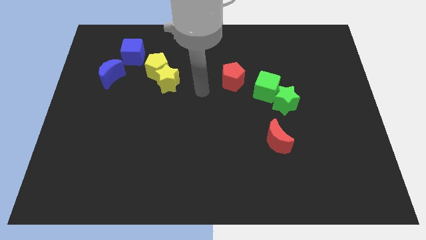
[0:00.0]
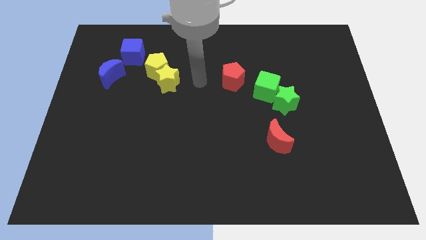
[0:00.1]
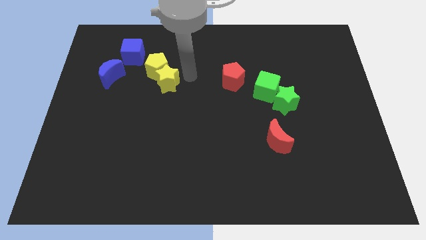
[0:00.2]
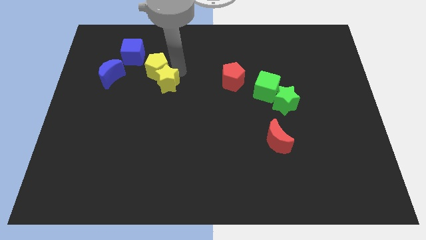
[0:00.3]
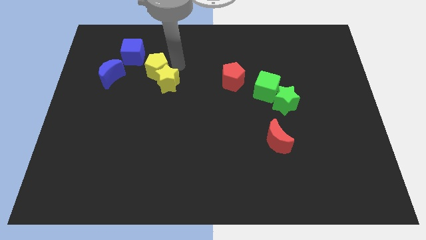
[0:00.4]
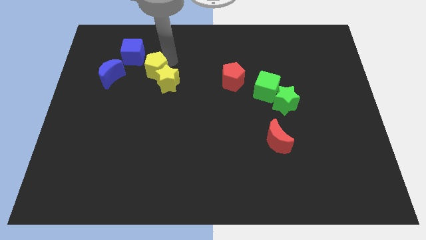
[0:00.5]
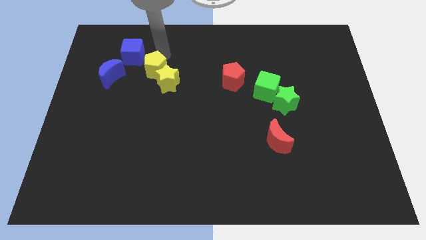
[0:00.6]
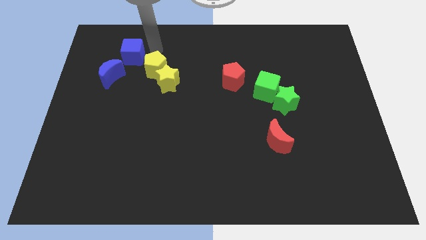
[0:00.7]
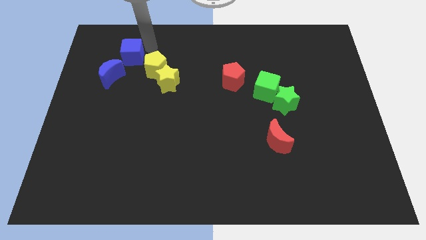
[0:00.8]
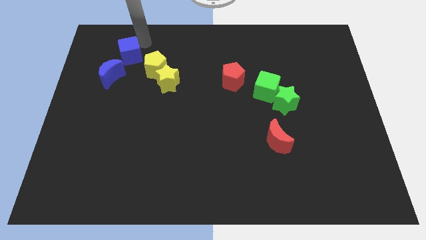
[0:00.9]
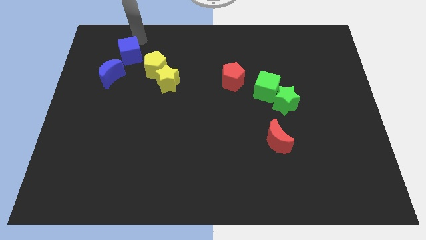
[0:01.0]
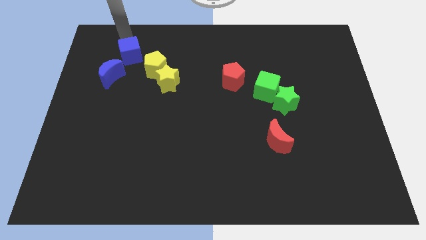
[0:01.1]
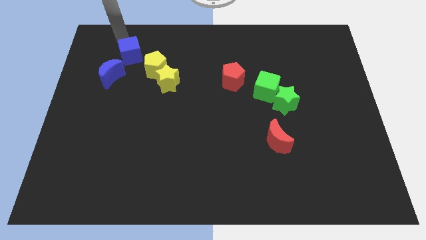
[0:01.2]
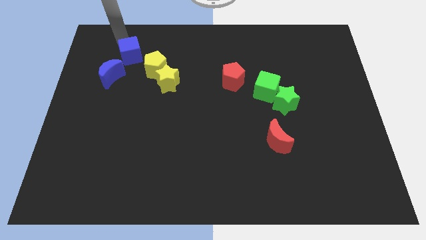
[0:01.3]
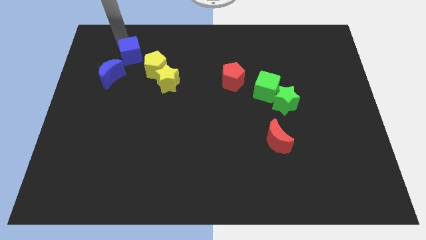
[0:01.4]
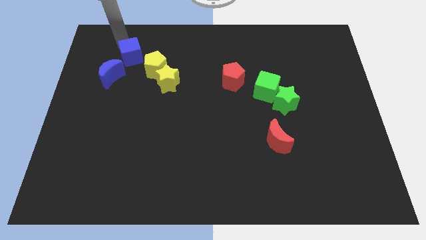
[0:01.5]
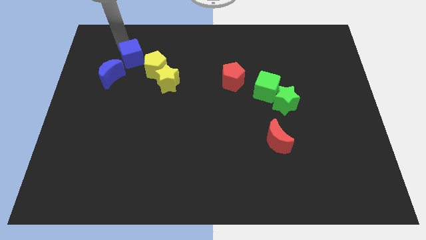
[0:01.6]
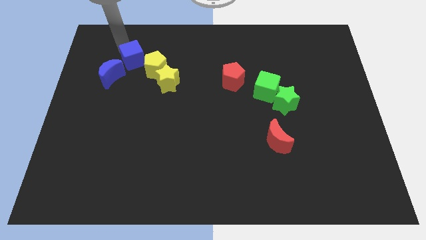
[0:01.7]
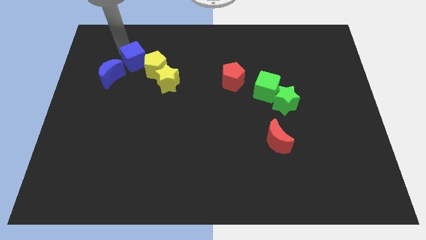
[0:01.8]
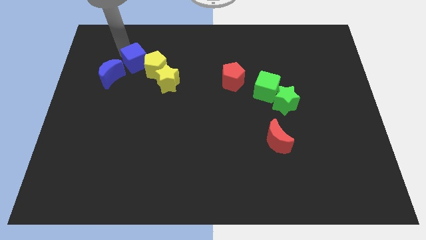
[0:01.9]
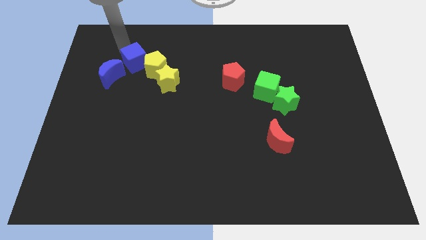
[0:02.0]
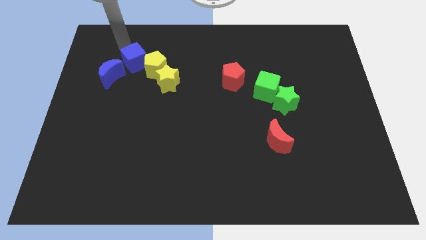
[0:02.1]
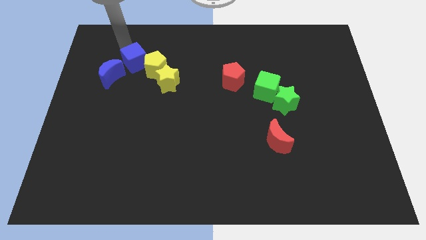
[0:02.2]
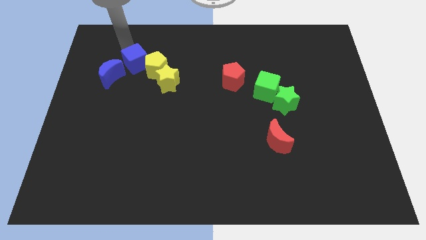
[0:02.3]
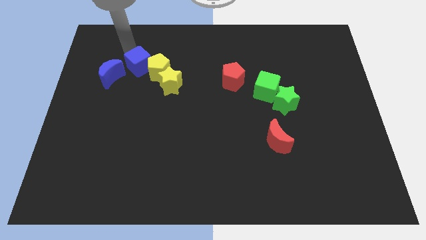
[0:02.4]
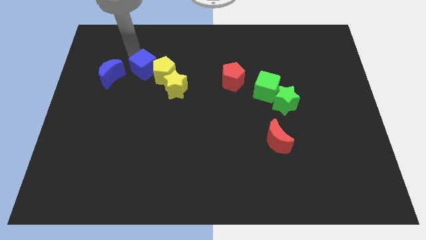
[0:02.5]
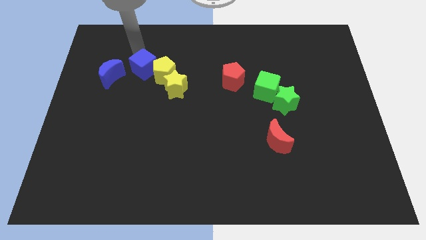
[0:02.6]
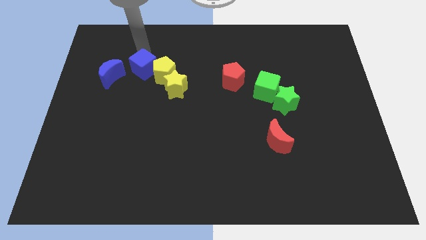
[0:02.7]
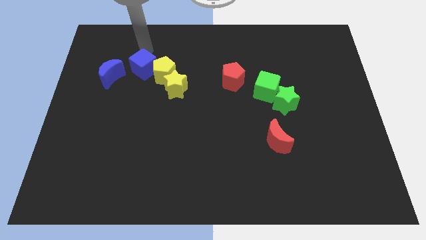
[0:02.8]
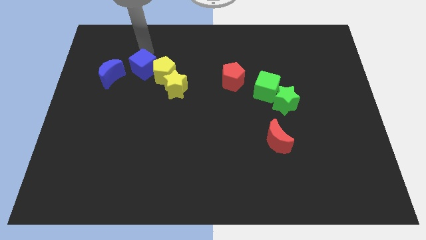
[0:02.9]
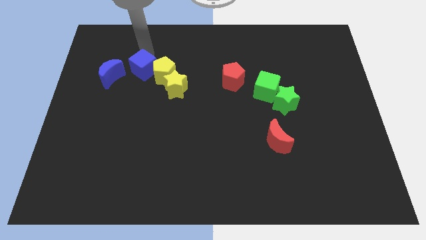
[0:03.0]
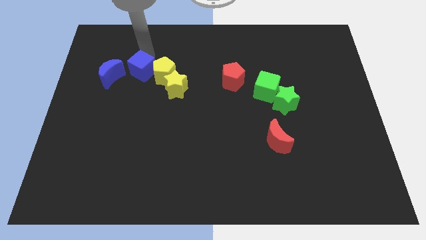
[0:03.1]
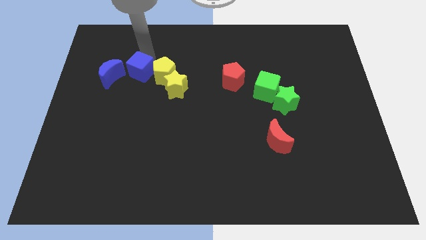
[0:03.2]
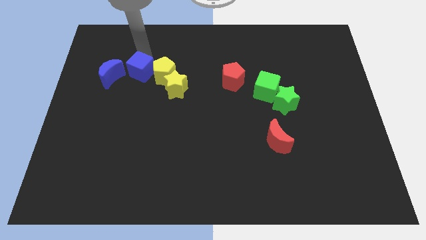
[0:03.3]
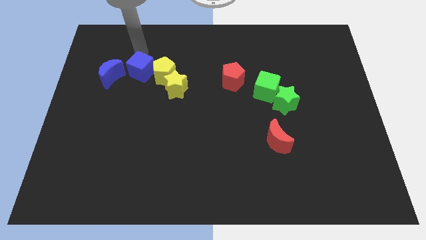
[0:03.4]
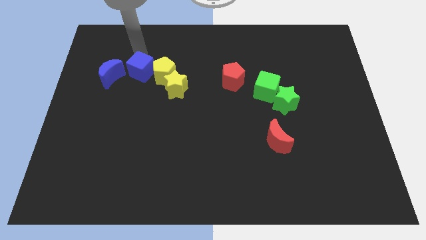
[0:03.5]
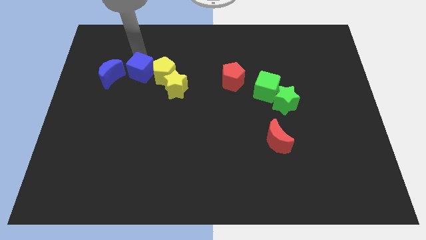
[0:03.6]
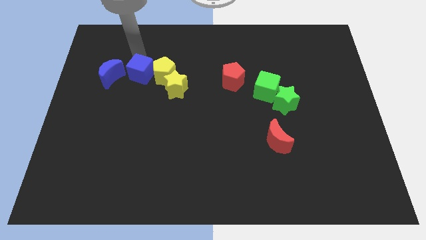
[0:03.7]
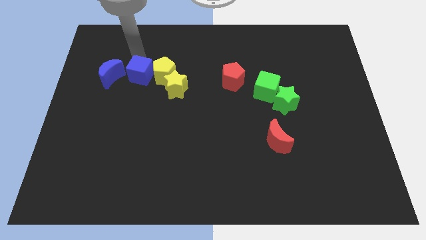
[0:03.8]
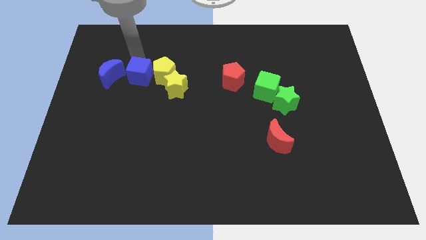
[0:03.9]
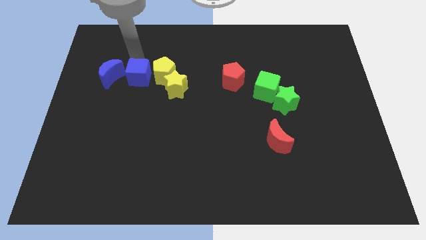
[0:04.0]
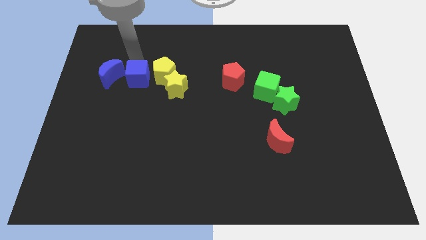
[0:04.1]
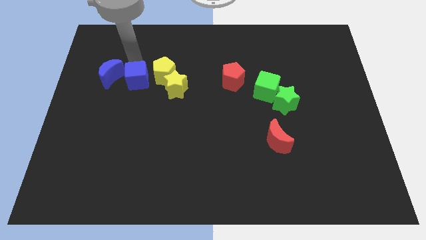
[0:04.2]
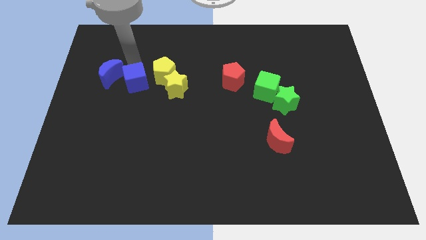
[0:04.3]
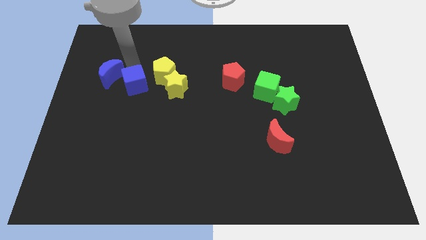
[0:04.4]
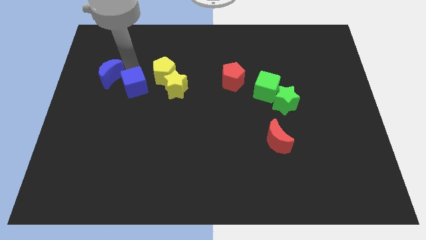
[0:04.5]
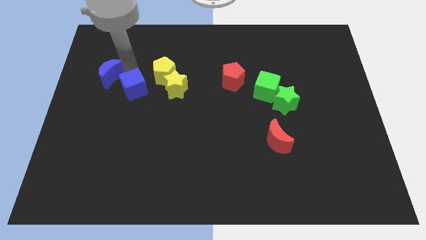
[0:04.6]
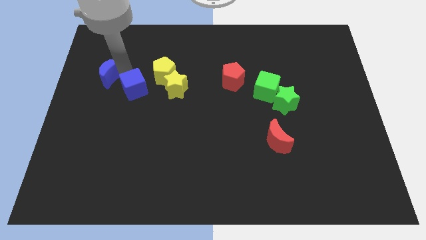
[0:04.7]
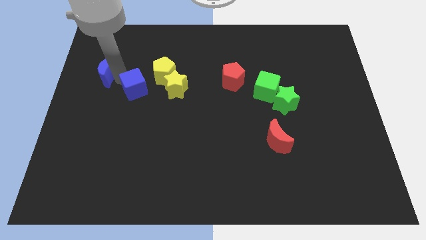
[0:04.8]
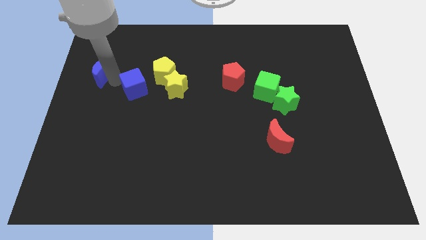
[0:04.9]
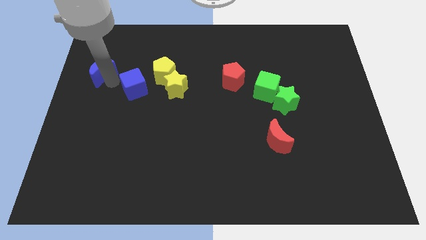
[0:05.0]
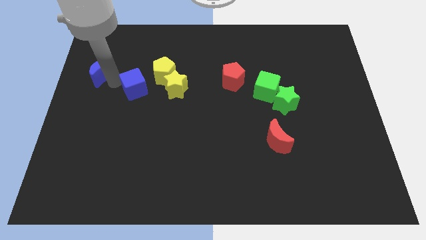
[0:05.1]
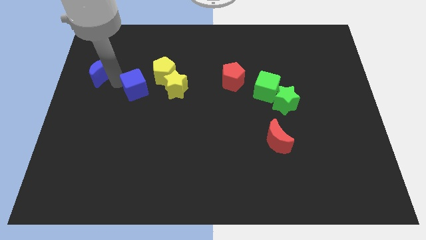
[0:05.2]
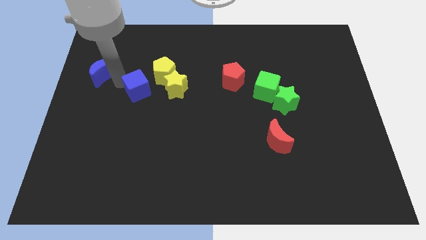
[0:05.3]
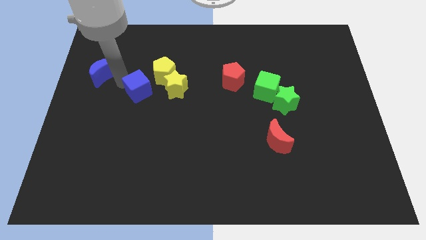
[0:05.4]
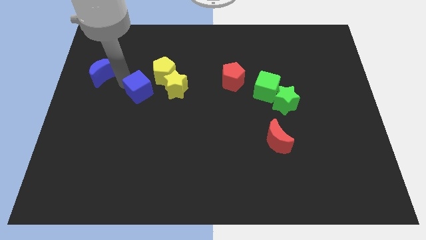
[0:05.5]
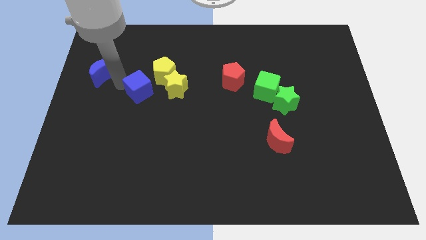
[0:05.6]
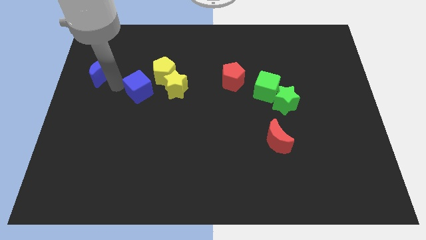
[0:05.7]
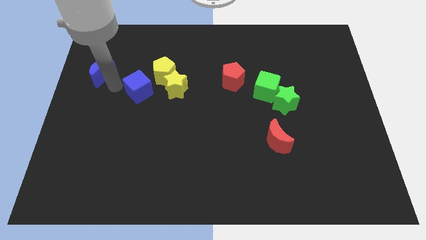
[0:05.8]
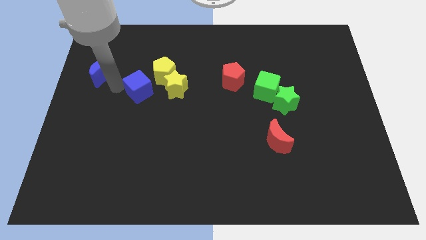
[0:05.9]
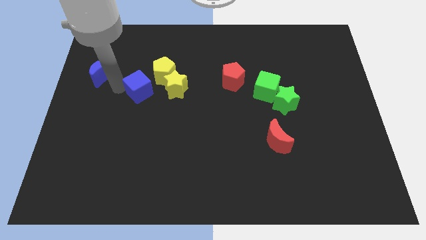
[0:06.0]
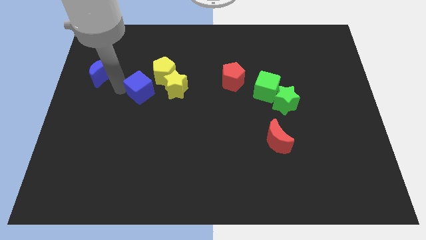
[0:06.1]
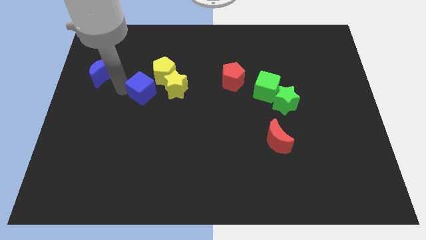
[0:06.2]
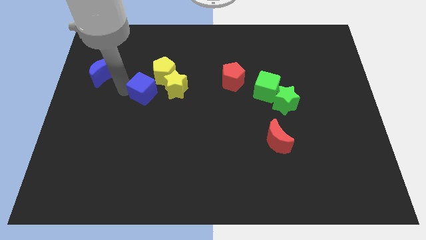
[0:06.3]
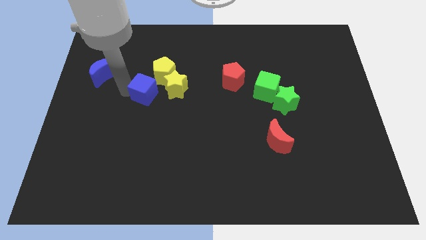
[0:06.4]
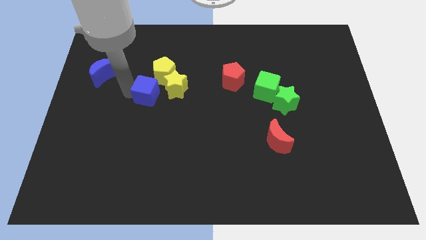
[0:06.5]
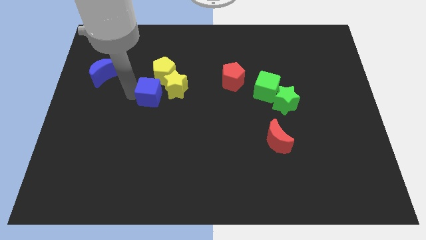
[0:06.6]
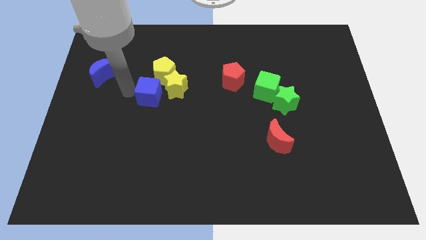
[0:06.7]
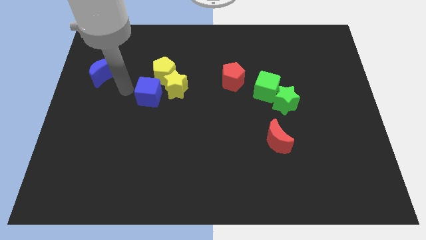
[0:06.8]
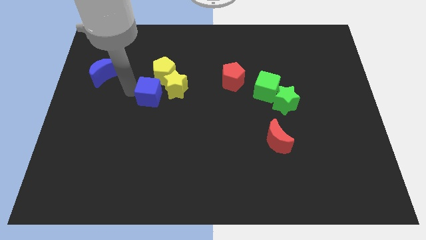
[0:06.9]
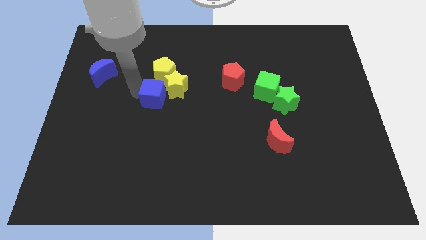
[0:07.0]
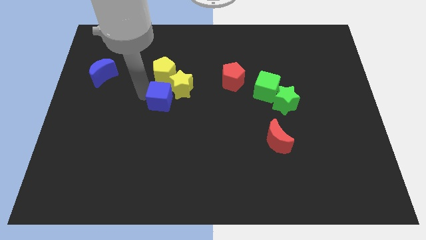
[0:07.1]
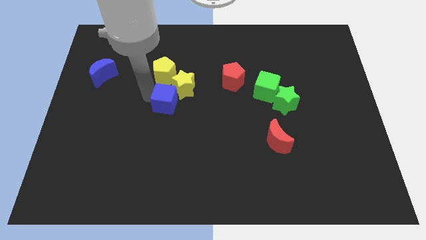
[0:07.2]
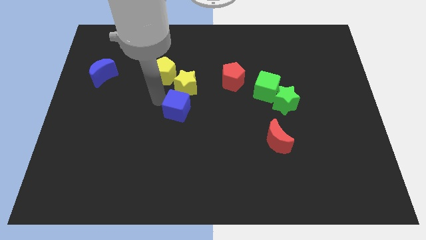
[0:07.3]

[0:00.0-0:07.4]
slide the blue cube down and then to the right

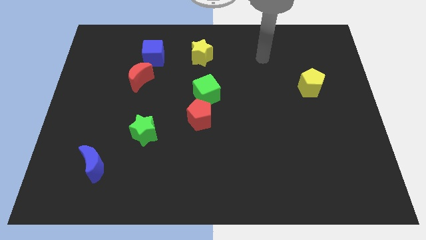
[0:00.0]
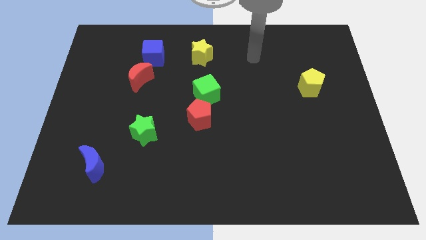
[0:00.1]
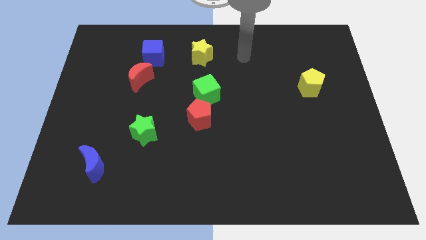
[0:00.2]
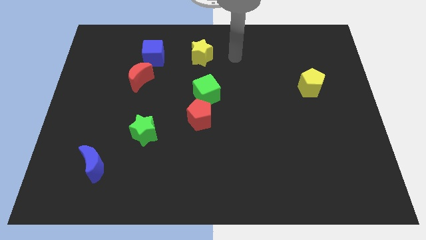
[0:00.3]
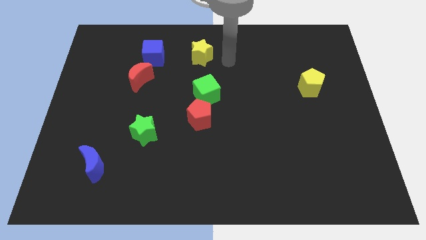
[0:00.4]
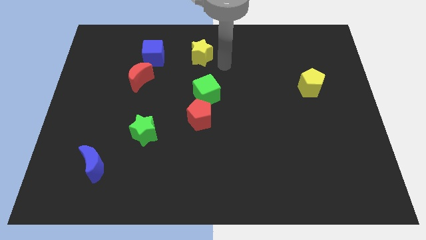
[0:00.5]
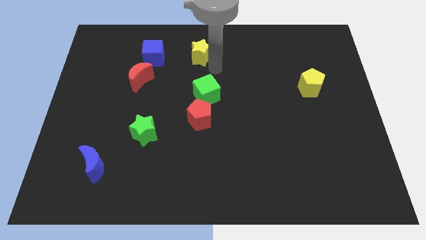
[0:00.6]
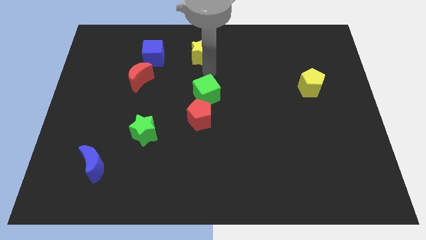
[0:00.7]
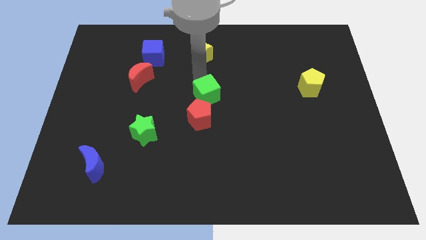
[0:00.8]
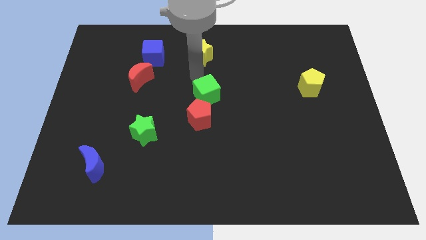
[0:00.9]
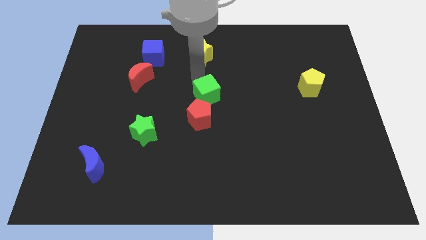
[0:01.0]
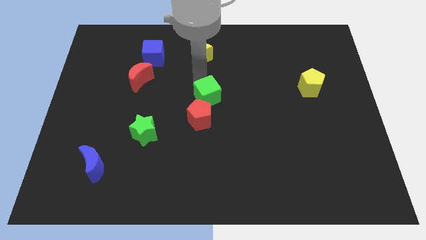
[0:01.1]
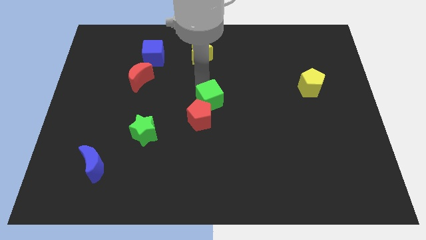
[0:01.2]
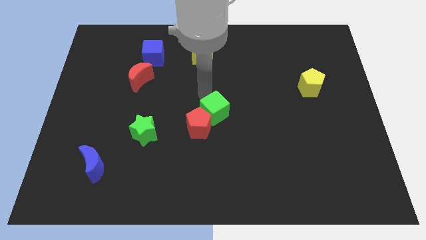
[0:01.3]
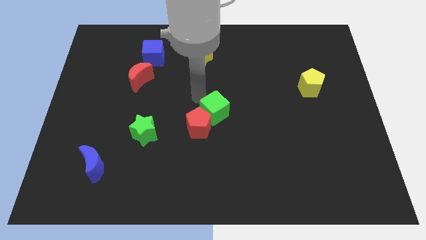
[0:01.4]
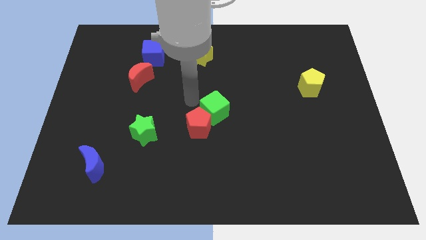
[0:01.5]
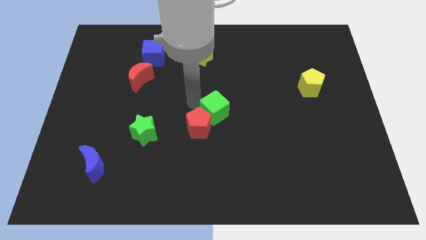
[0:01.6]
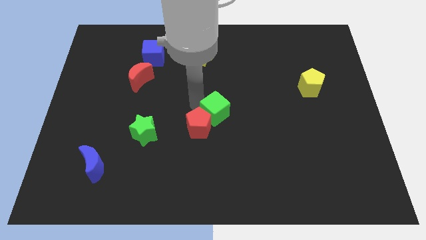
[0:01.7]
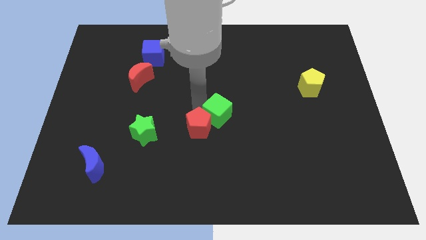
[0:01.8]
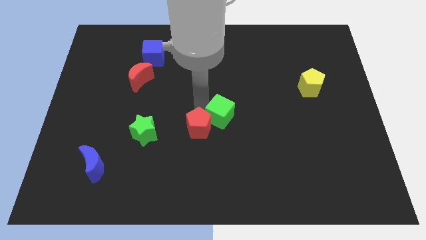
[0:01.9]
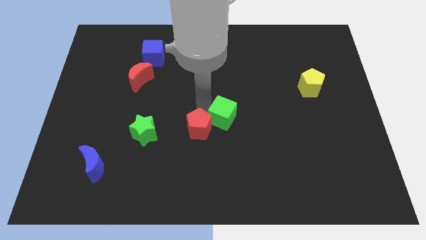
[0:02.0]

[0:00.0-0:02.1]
move the green cube downwards and right slightly
